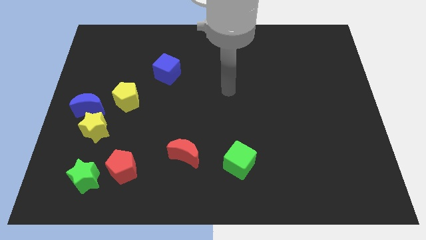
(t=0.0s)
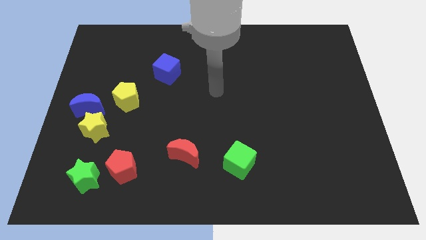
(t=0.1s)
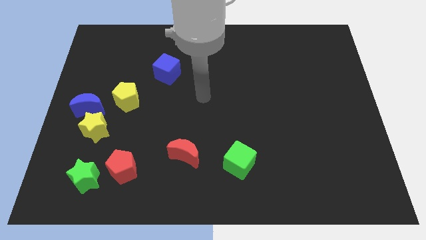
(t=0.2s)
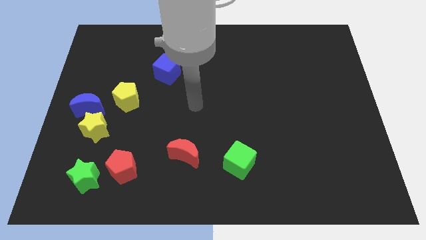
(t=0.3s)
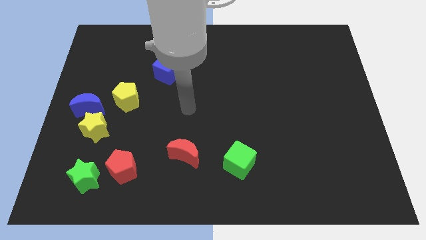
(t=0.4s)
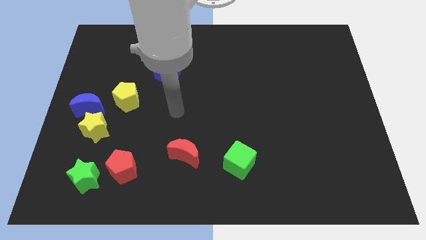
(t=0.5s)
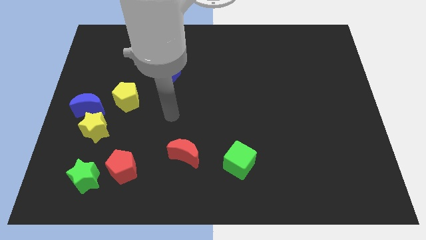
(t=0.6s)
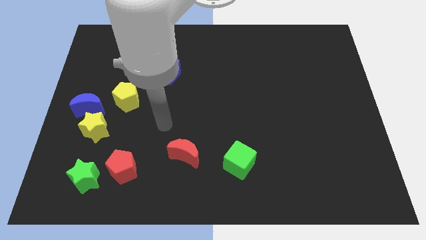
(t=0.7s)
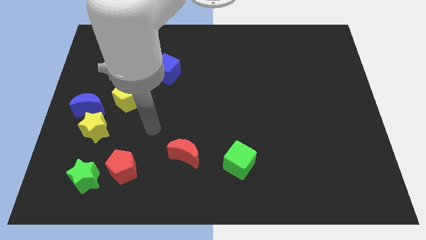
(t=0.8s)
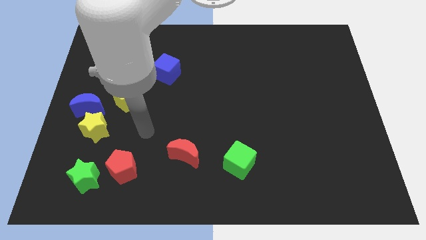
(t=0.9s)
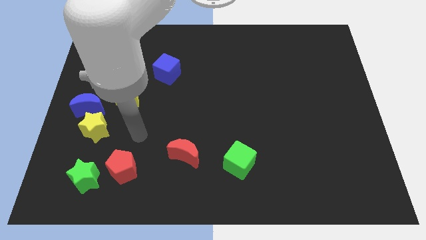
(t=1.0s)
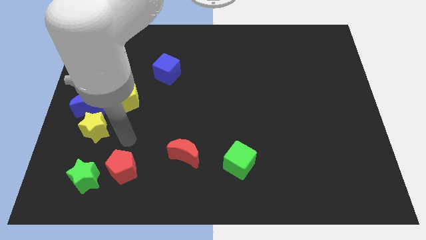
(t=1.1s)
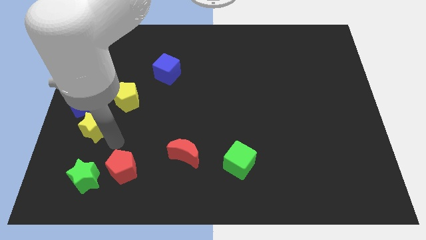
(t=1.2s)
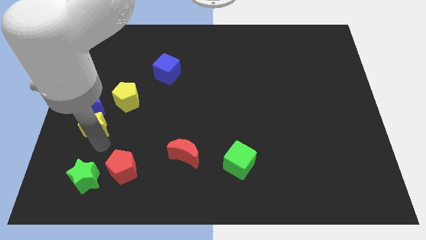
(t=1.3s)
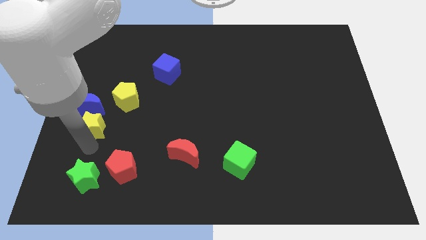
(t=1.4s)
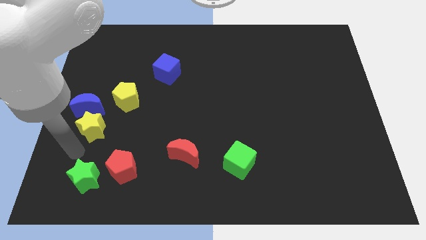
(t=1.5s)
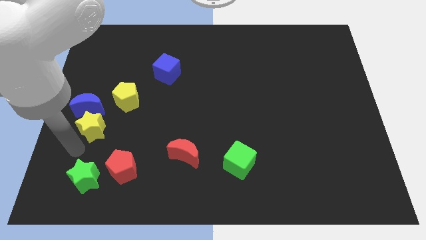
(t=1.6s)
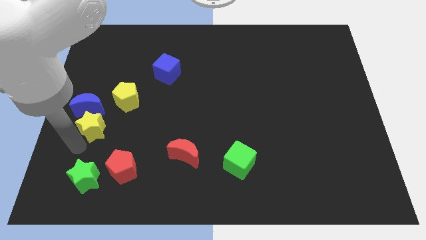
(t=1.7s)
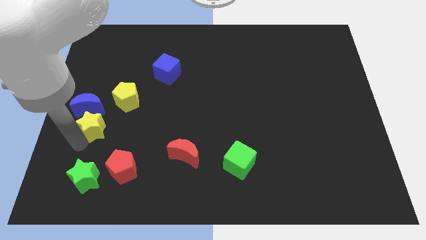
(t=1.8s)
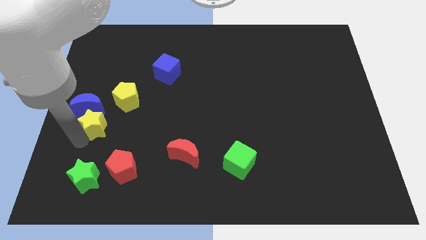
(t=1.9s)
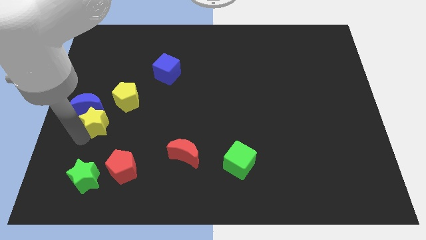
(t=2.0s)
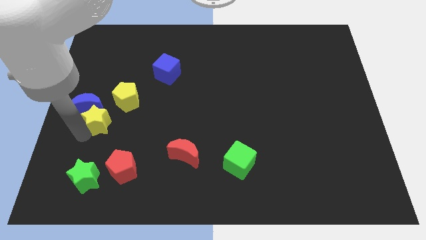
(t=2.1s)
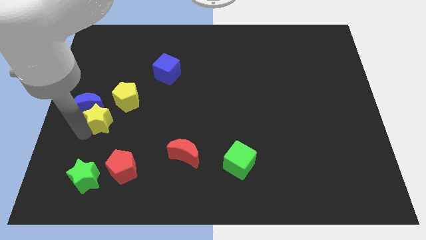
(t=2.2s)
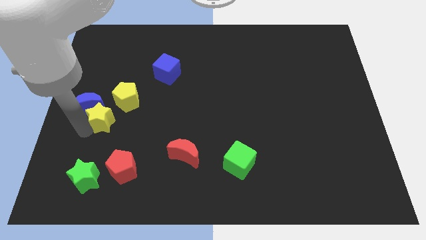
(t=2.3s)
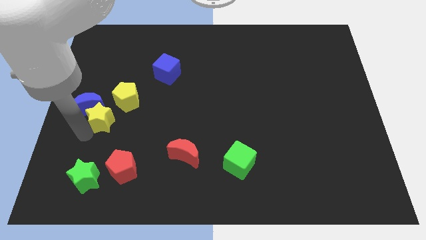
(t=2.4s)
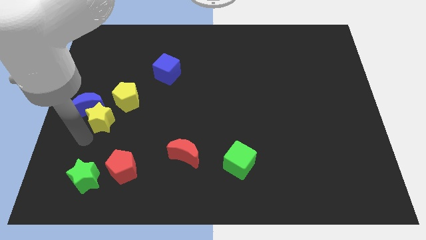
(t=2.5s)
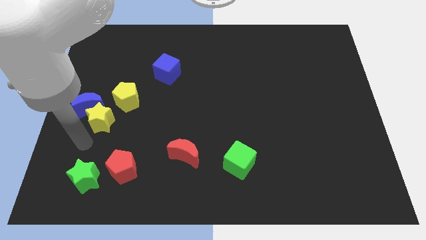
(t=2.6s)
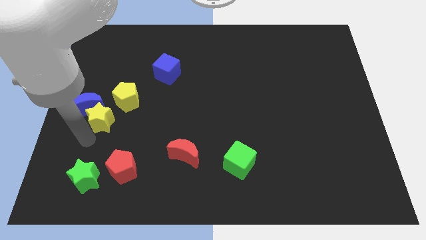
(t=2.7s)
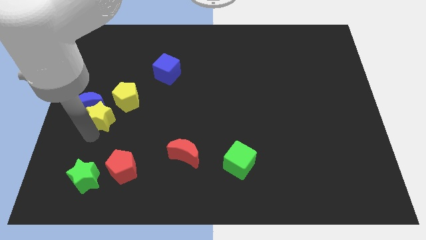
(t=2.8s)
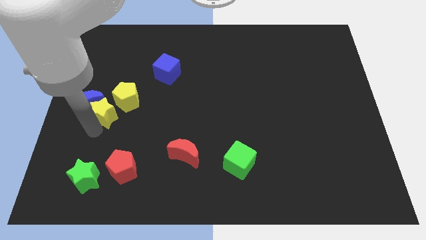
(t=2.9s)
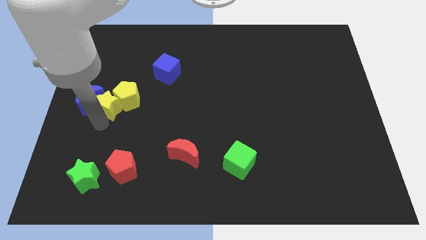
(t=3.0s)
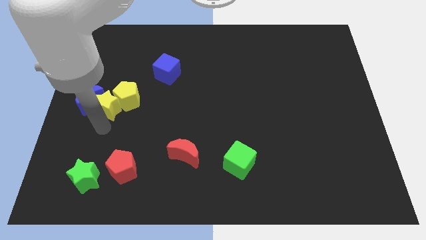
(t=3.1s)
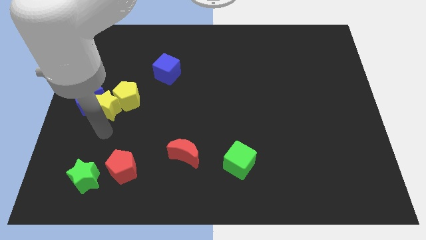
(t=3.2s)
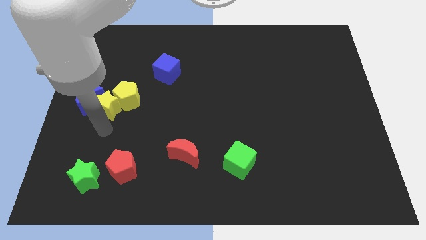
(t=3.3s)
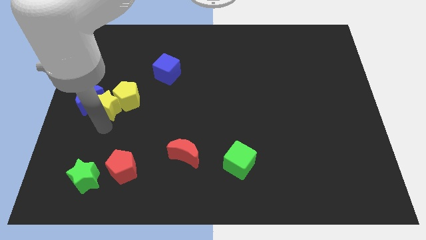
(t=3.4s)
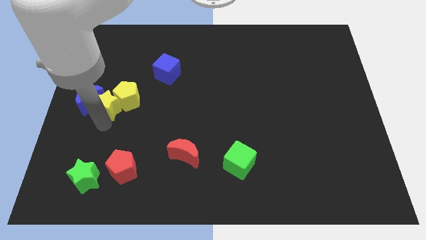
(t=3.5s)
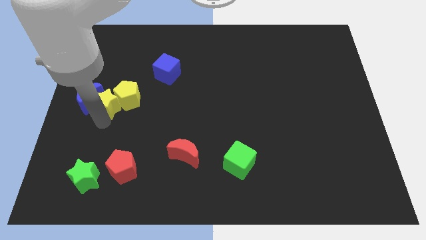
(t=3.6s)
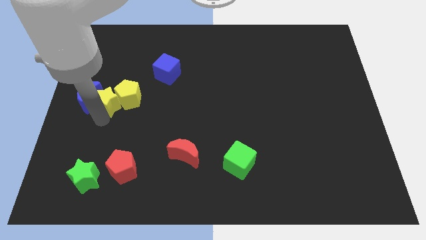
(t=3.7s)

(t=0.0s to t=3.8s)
slide the yellow star upwards a bit

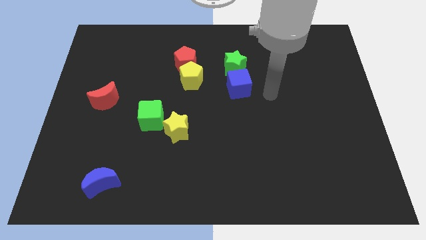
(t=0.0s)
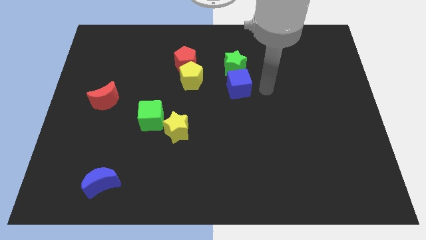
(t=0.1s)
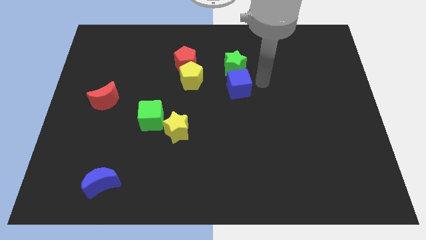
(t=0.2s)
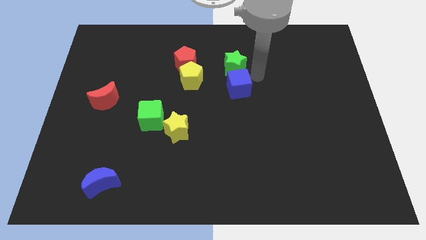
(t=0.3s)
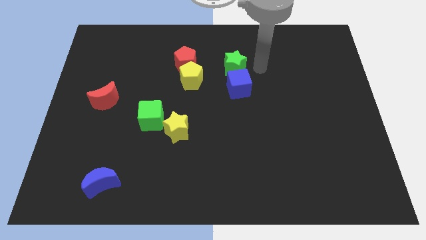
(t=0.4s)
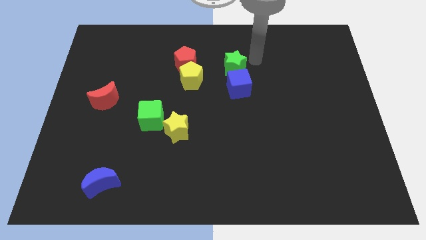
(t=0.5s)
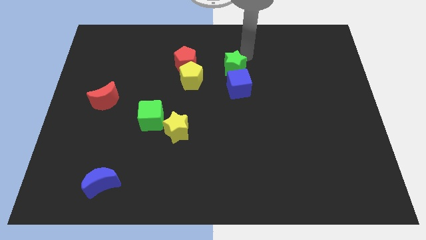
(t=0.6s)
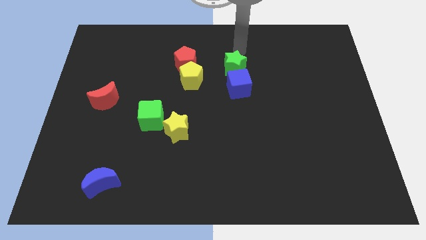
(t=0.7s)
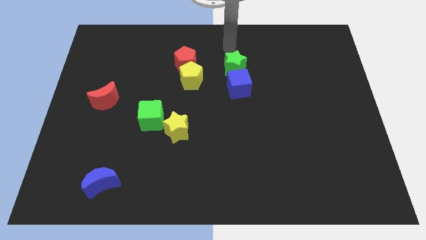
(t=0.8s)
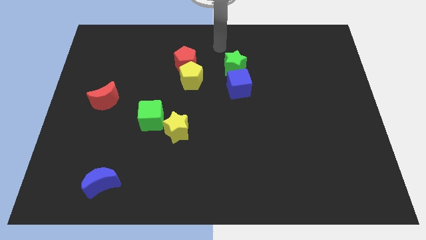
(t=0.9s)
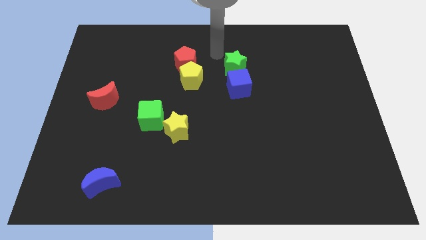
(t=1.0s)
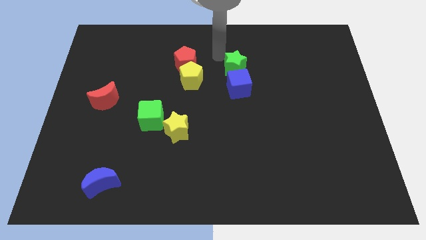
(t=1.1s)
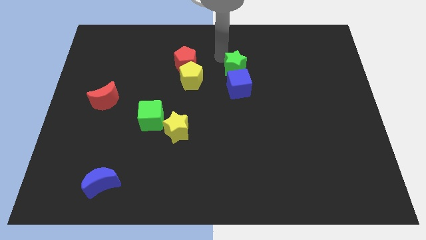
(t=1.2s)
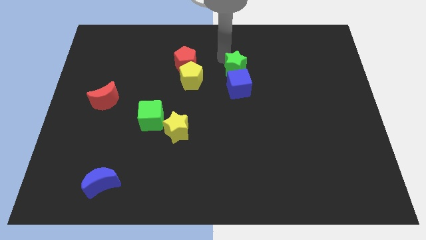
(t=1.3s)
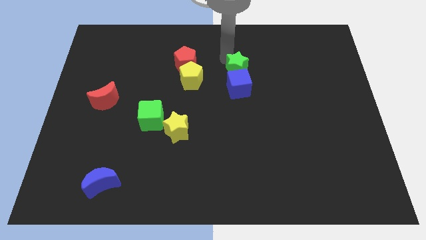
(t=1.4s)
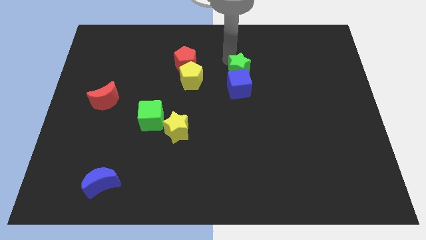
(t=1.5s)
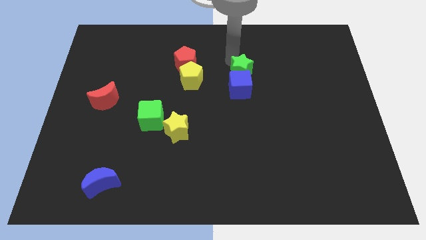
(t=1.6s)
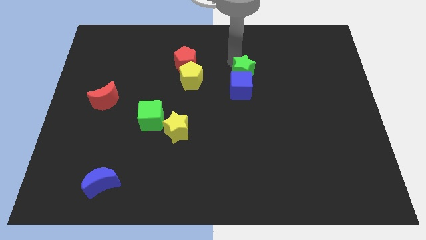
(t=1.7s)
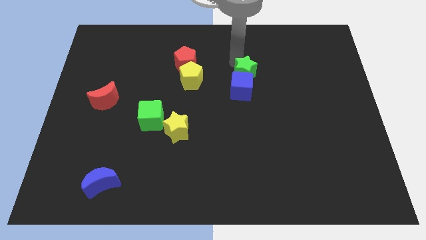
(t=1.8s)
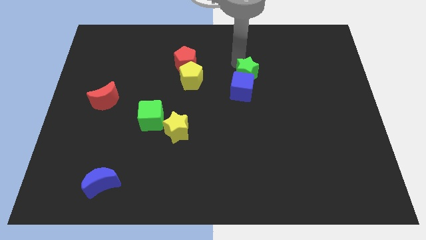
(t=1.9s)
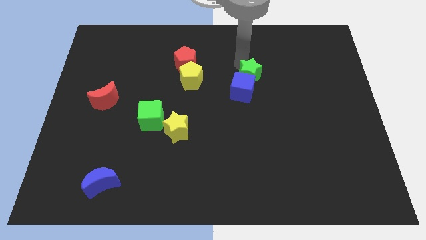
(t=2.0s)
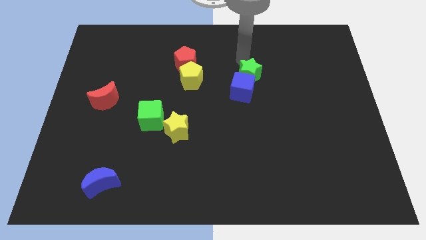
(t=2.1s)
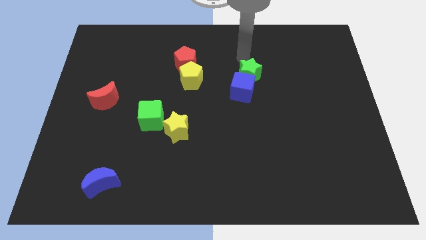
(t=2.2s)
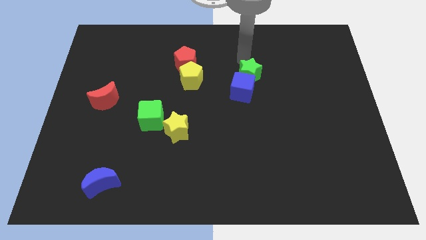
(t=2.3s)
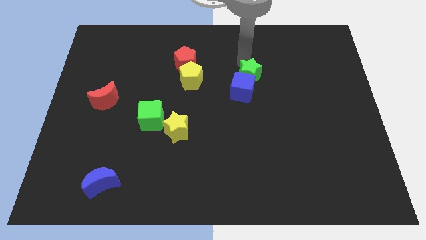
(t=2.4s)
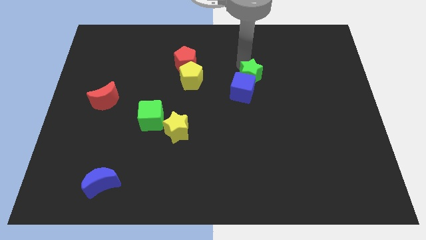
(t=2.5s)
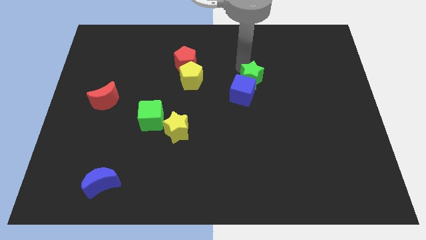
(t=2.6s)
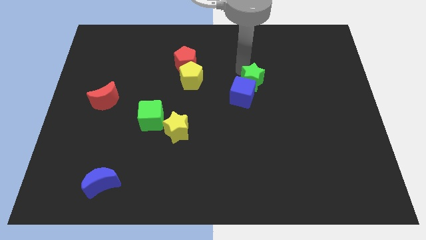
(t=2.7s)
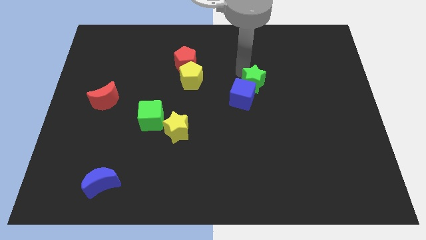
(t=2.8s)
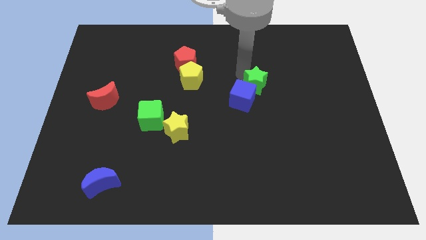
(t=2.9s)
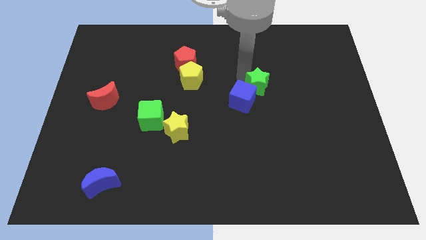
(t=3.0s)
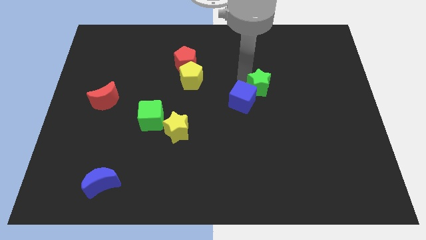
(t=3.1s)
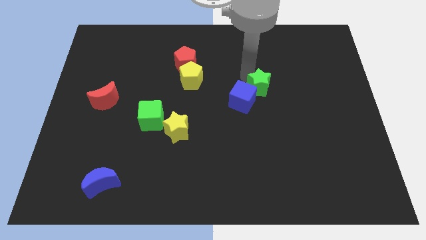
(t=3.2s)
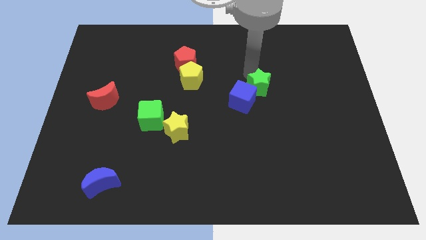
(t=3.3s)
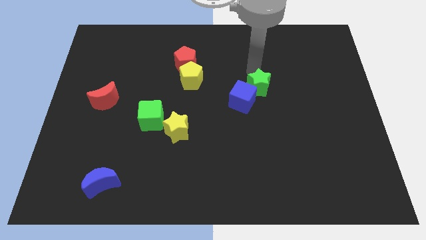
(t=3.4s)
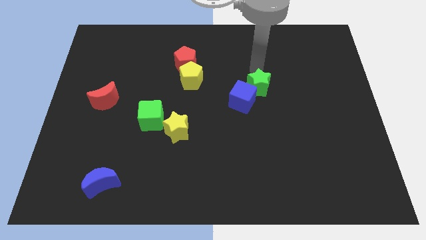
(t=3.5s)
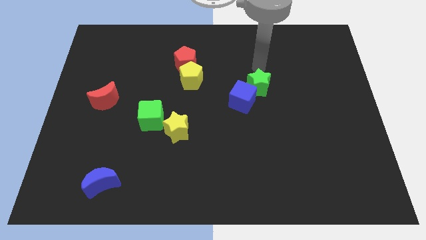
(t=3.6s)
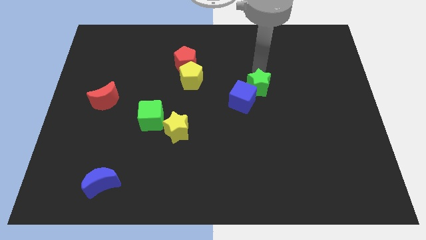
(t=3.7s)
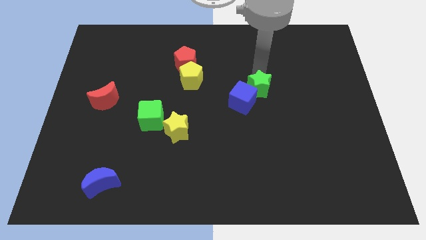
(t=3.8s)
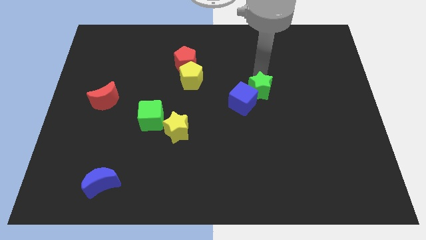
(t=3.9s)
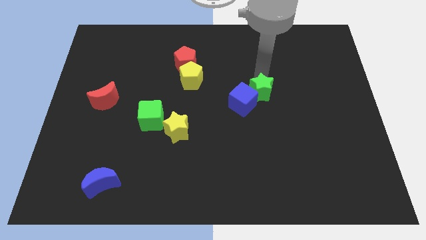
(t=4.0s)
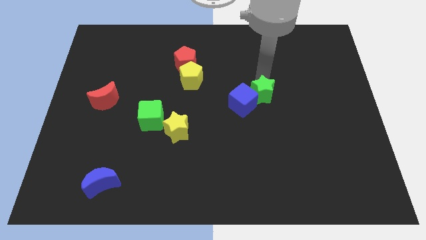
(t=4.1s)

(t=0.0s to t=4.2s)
move the green star slightly downwards
